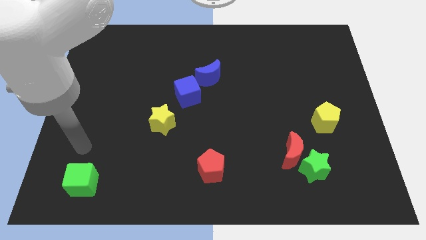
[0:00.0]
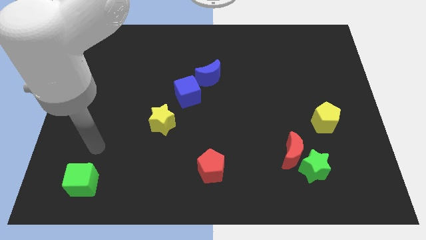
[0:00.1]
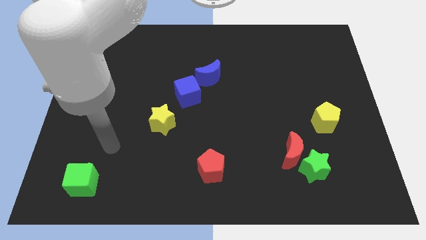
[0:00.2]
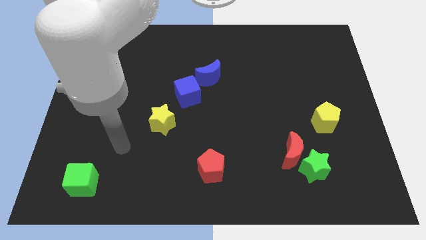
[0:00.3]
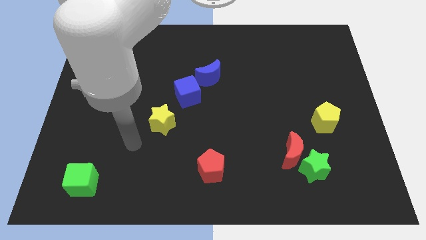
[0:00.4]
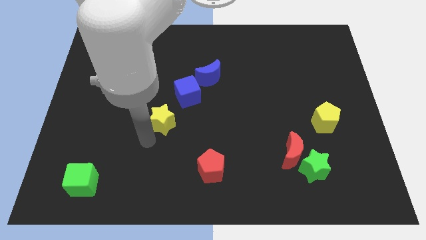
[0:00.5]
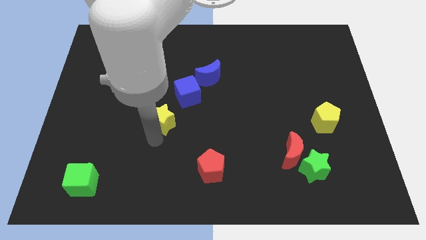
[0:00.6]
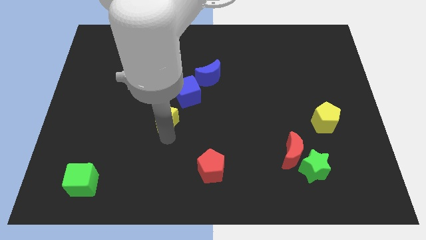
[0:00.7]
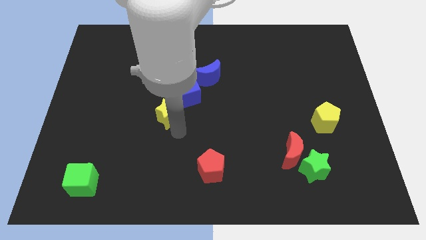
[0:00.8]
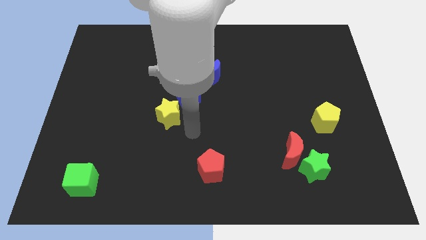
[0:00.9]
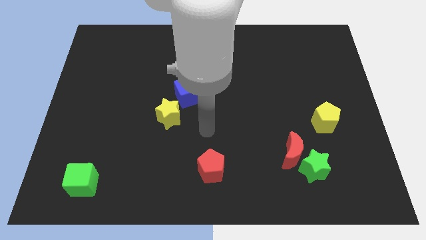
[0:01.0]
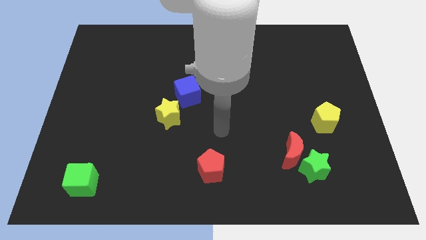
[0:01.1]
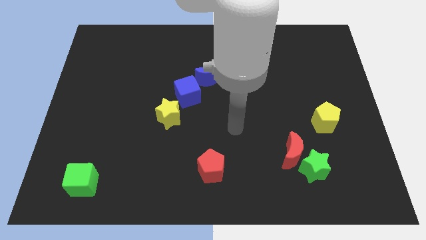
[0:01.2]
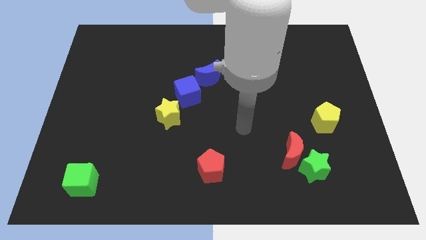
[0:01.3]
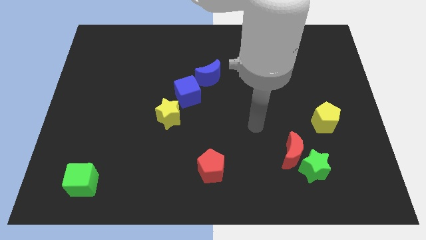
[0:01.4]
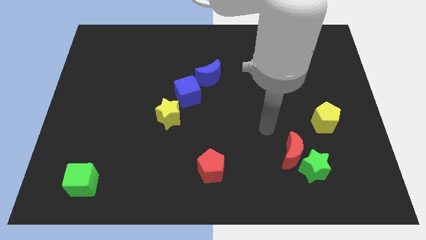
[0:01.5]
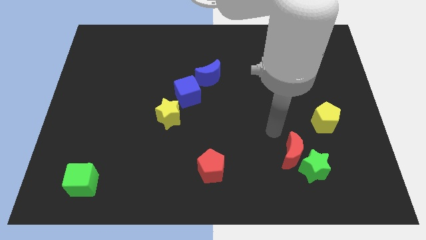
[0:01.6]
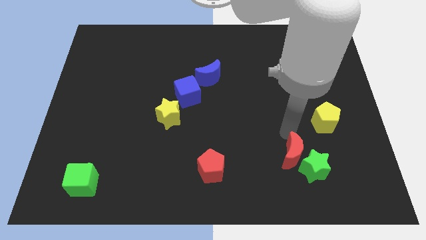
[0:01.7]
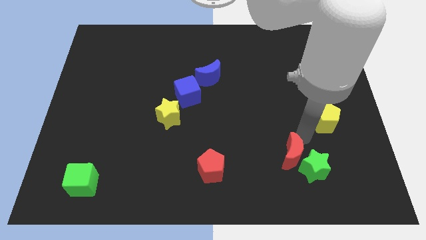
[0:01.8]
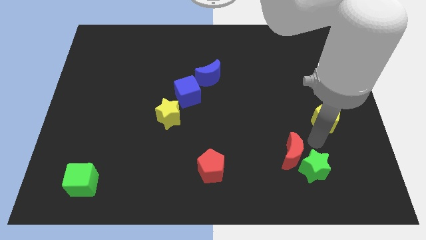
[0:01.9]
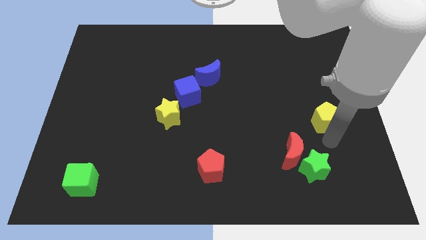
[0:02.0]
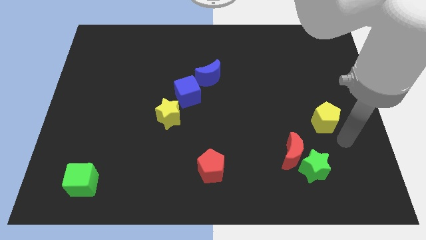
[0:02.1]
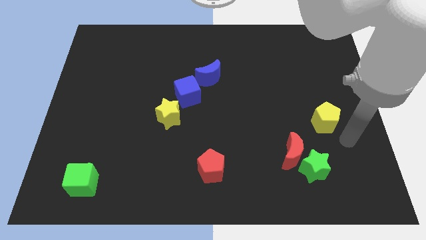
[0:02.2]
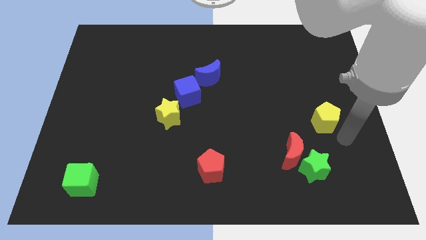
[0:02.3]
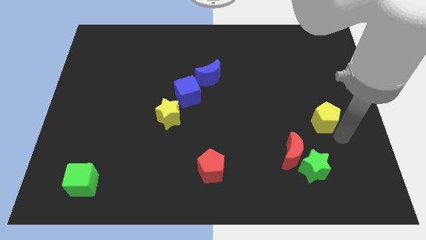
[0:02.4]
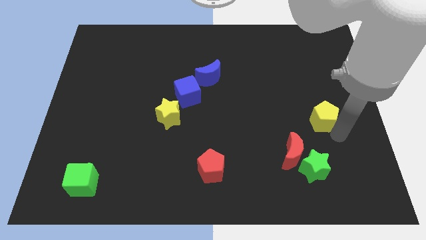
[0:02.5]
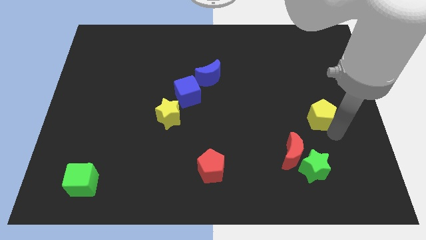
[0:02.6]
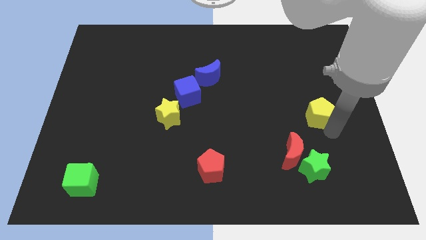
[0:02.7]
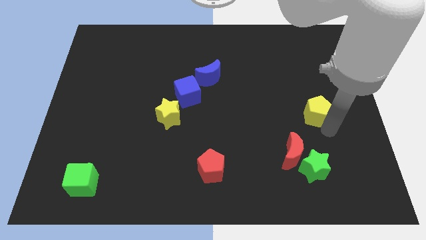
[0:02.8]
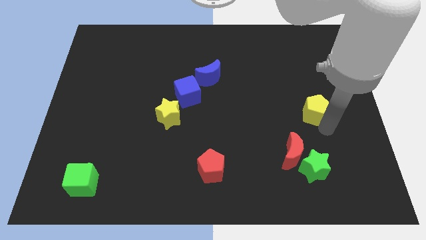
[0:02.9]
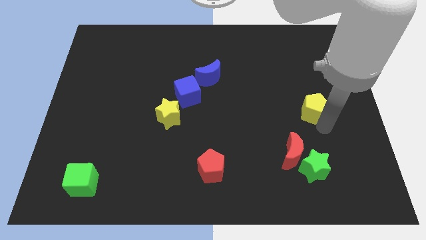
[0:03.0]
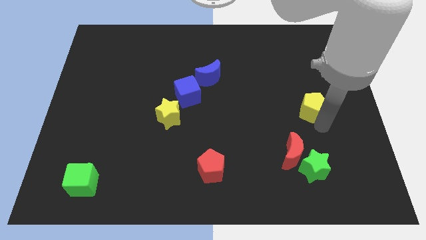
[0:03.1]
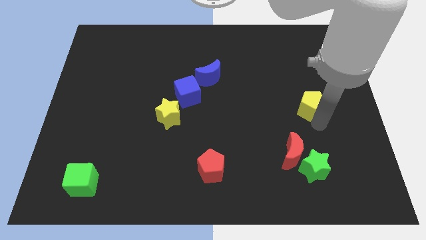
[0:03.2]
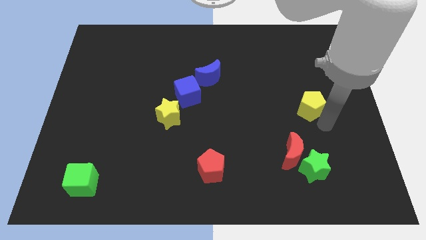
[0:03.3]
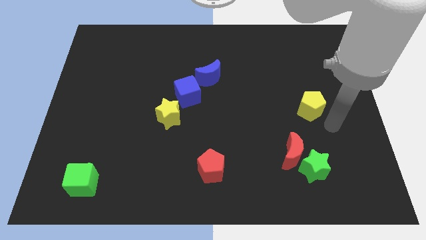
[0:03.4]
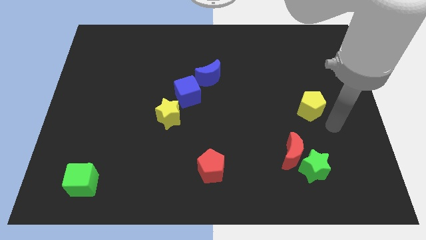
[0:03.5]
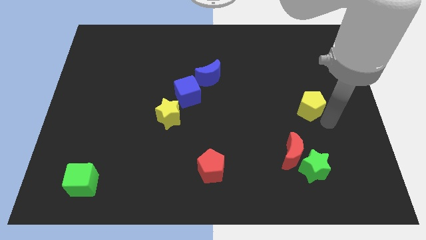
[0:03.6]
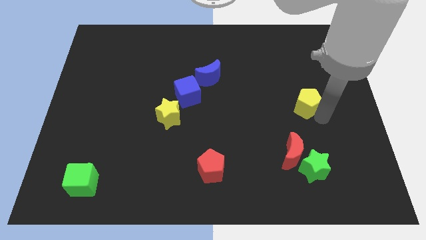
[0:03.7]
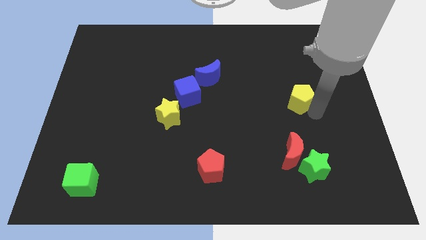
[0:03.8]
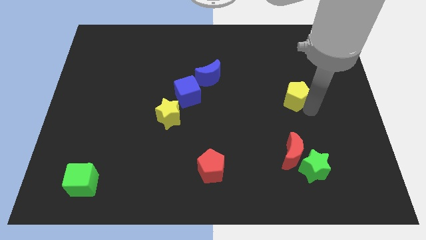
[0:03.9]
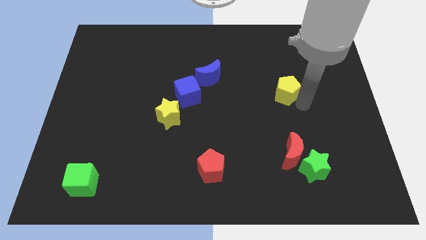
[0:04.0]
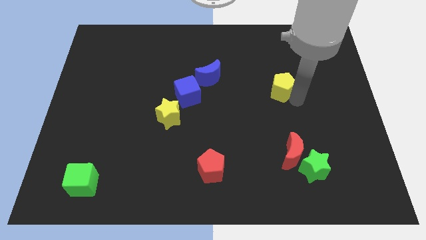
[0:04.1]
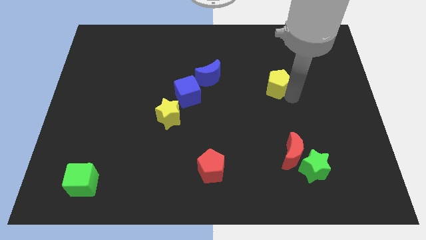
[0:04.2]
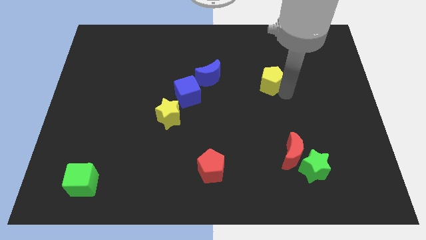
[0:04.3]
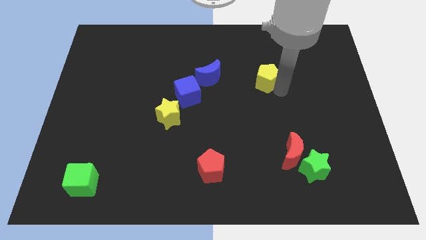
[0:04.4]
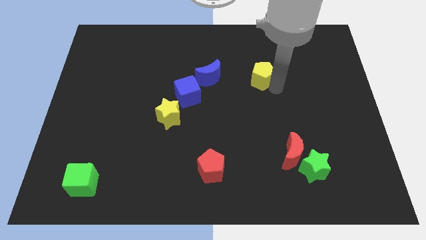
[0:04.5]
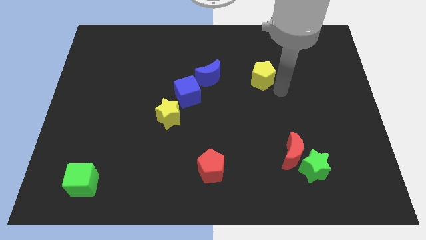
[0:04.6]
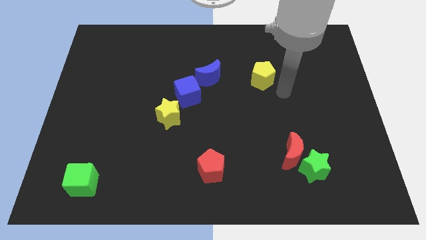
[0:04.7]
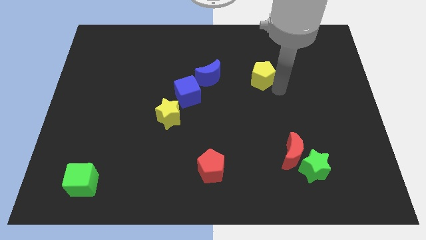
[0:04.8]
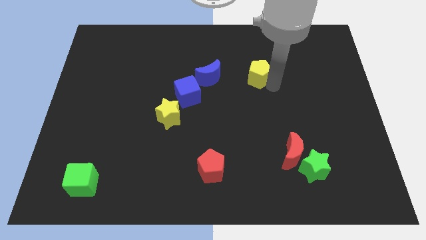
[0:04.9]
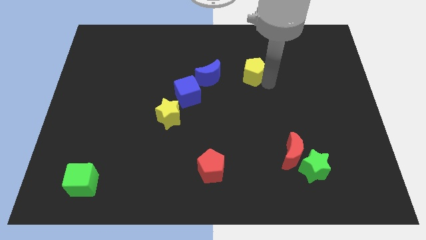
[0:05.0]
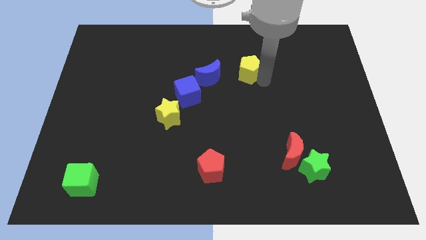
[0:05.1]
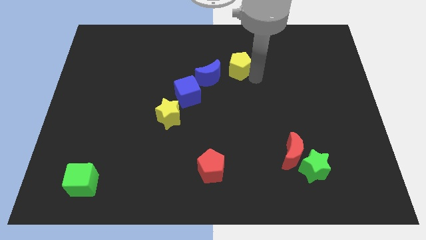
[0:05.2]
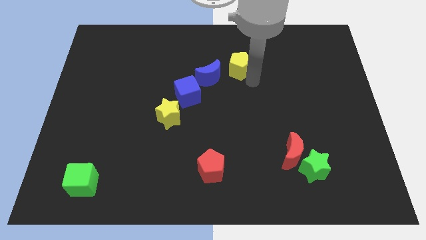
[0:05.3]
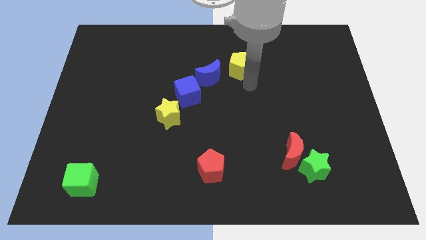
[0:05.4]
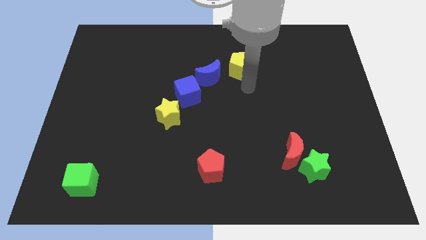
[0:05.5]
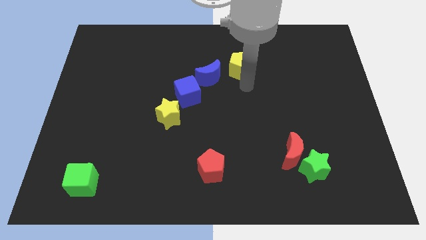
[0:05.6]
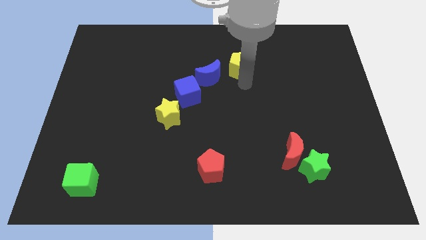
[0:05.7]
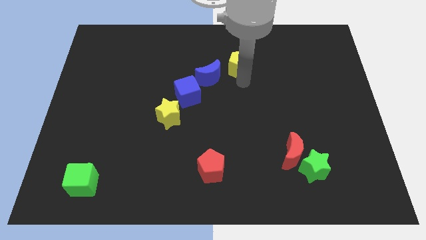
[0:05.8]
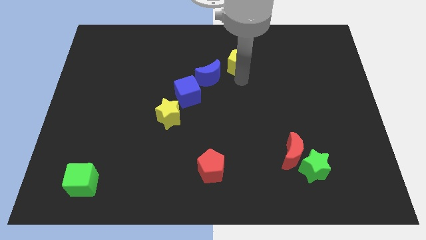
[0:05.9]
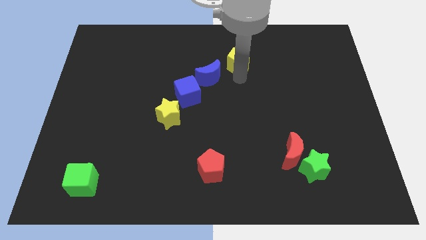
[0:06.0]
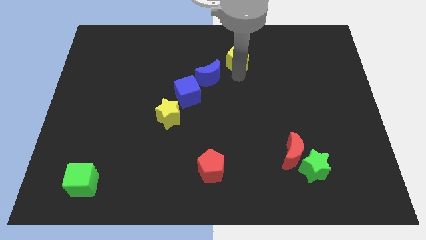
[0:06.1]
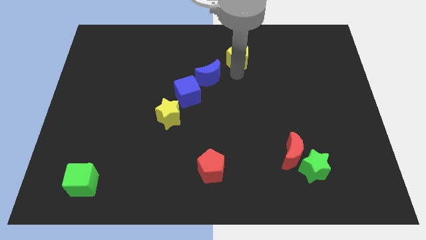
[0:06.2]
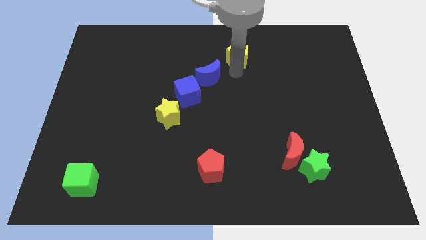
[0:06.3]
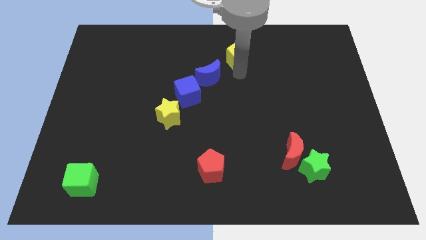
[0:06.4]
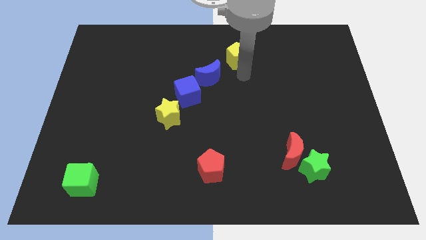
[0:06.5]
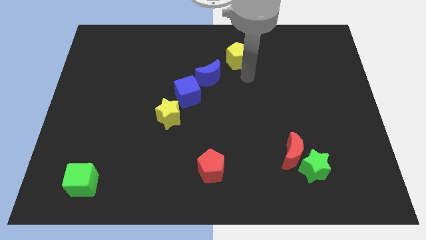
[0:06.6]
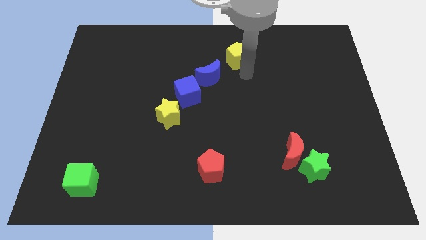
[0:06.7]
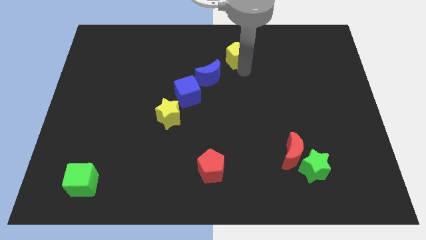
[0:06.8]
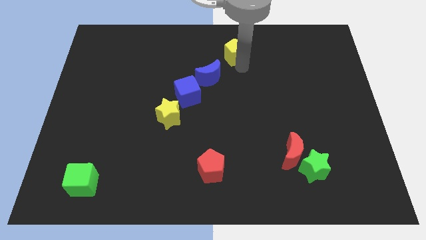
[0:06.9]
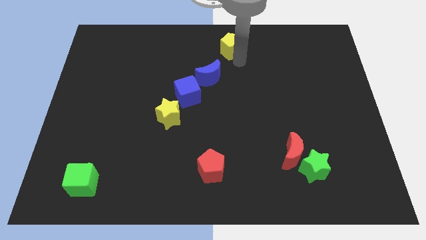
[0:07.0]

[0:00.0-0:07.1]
put the yellow pentagon to the top
